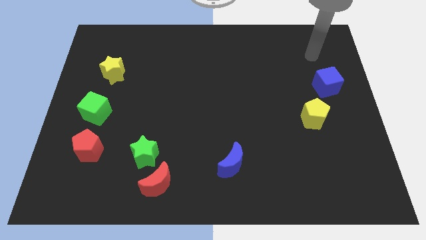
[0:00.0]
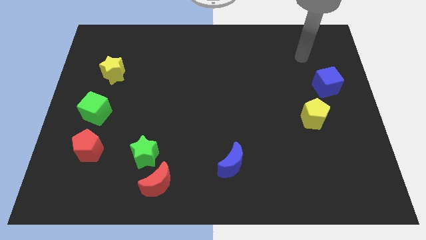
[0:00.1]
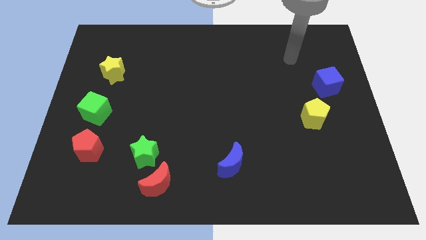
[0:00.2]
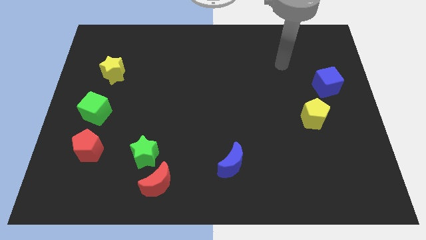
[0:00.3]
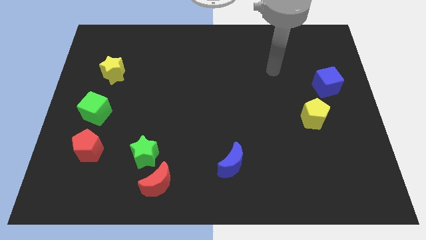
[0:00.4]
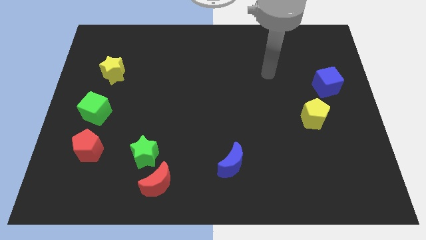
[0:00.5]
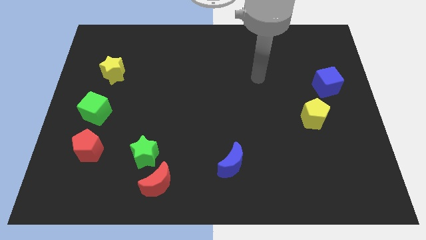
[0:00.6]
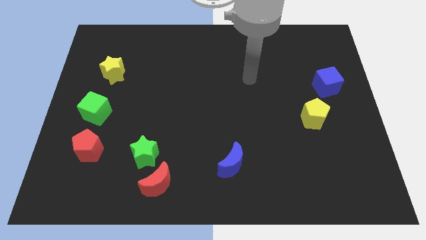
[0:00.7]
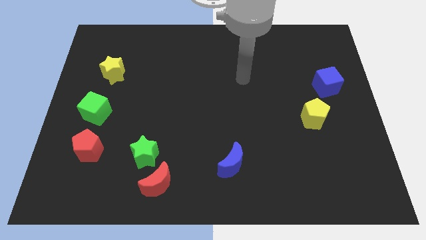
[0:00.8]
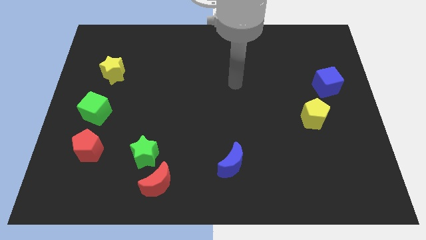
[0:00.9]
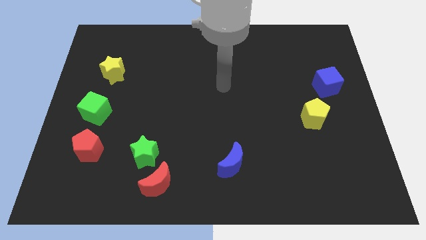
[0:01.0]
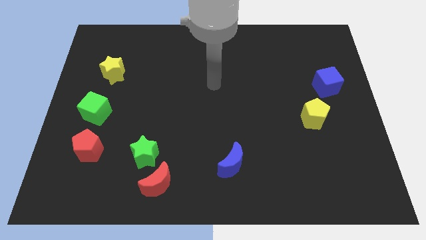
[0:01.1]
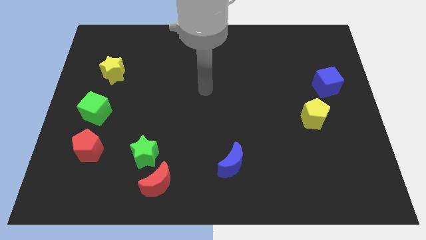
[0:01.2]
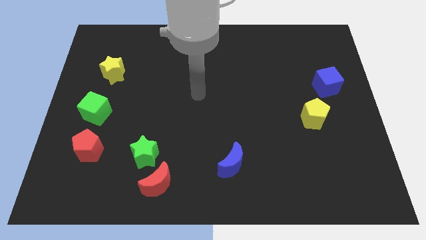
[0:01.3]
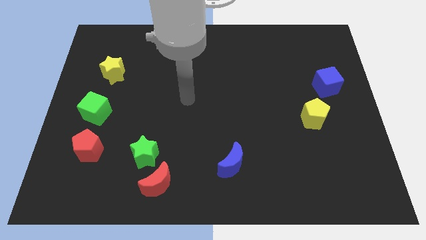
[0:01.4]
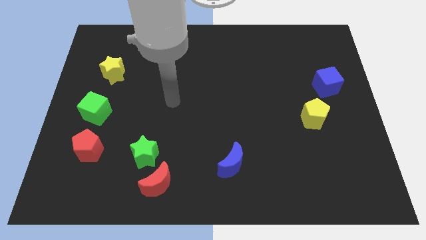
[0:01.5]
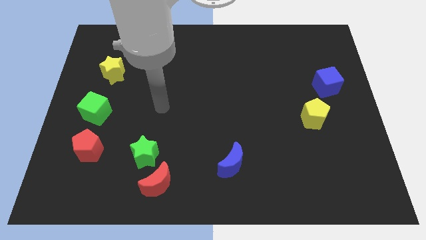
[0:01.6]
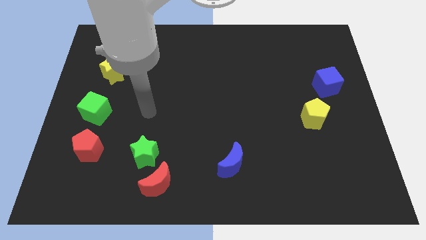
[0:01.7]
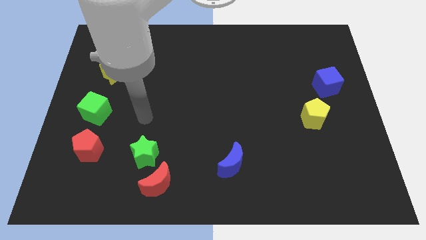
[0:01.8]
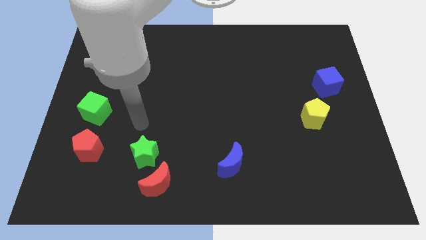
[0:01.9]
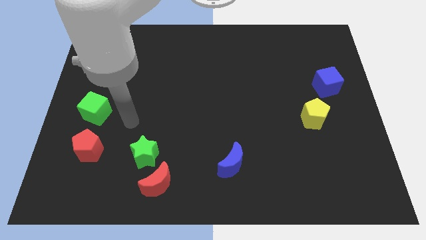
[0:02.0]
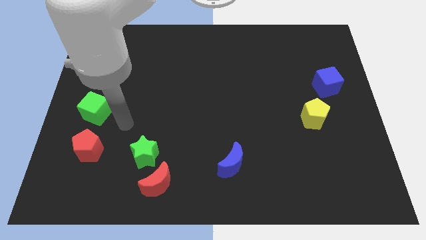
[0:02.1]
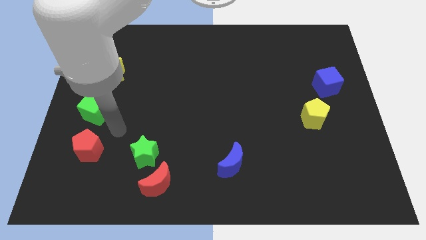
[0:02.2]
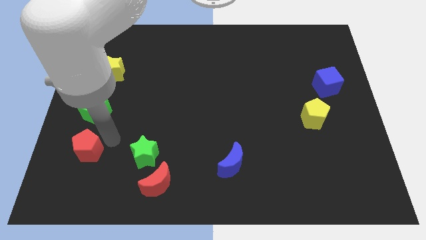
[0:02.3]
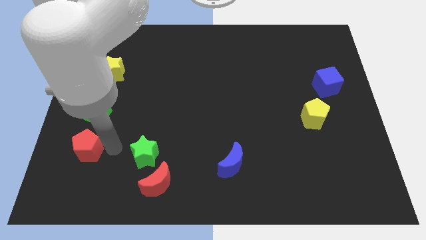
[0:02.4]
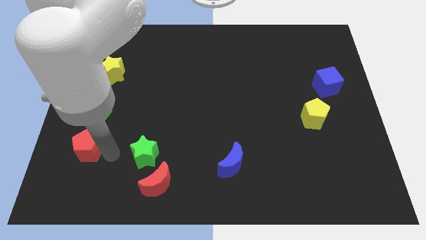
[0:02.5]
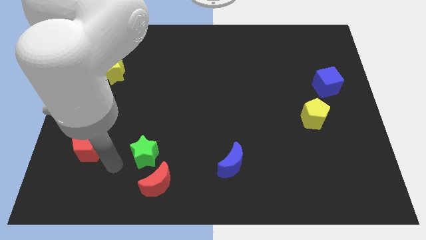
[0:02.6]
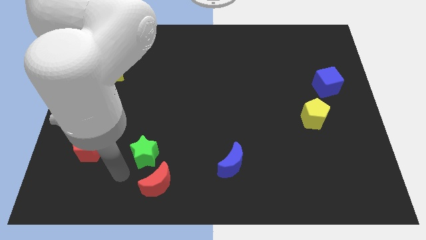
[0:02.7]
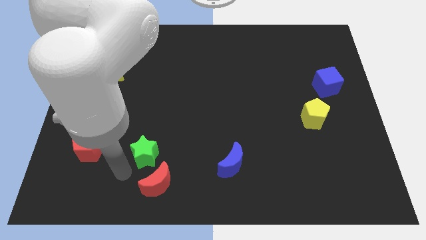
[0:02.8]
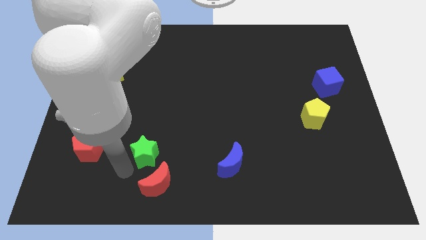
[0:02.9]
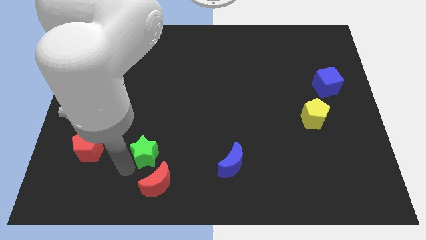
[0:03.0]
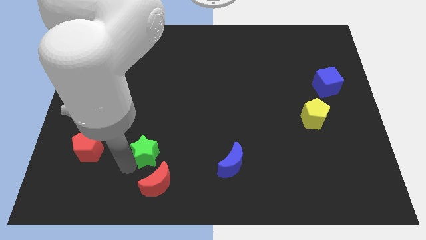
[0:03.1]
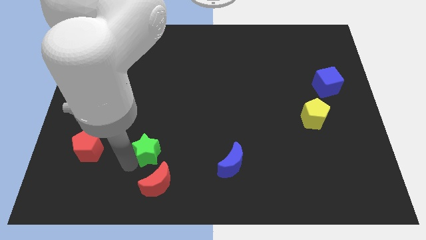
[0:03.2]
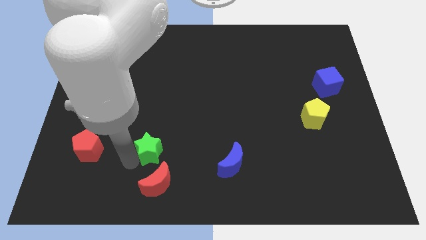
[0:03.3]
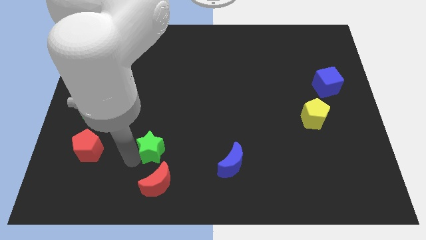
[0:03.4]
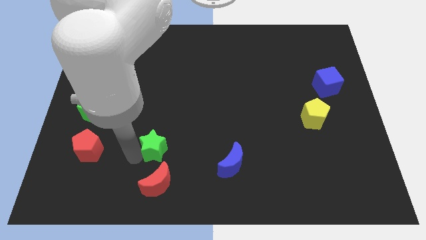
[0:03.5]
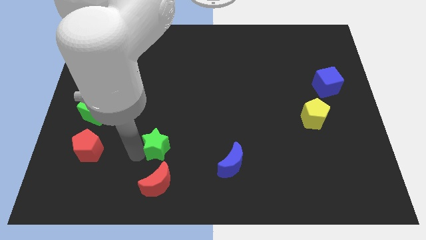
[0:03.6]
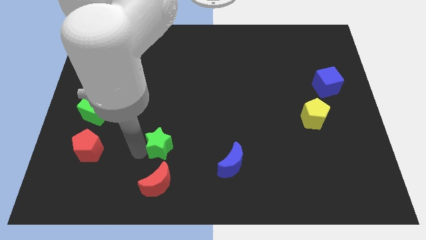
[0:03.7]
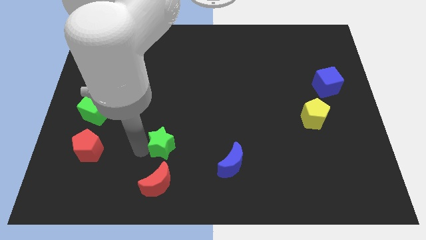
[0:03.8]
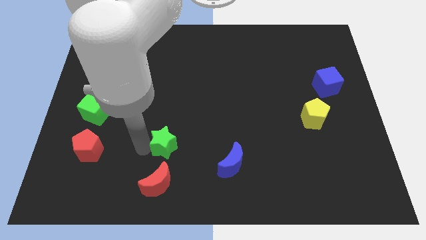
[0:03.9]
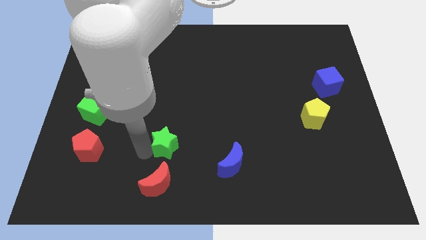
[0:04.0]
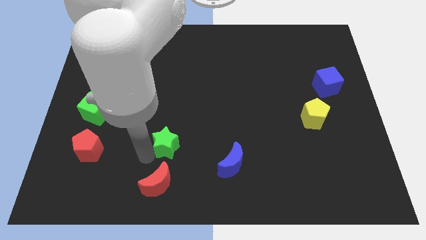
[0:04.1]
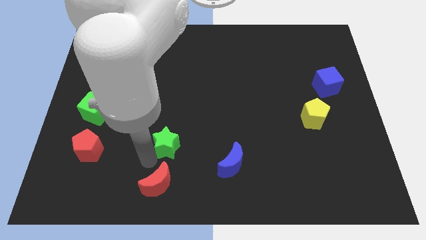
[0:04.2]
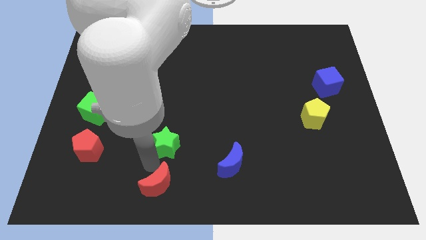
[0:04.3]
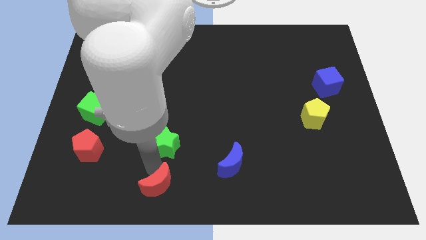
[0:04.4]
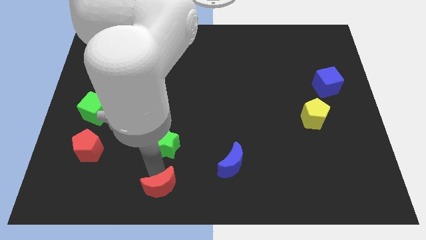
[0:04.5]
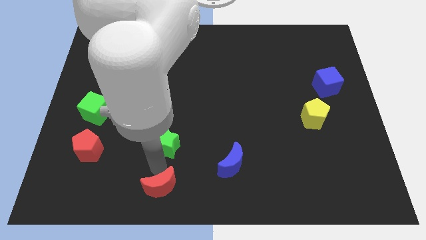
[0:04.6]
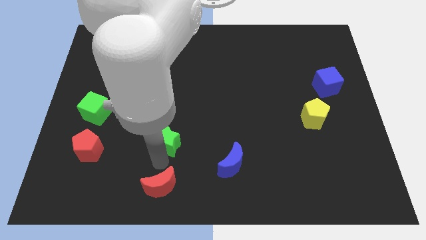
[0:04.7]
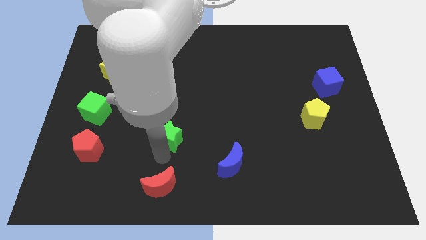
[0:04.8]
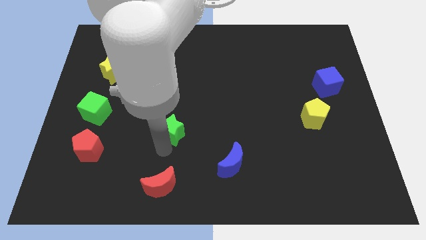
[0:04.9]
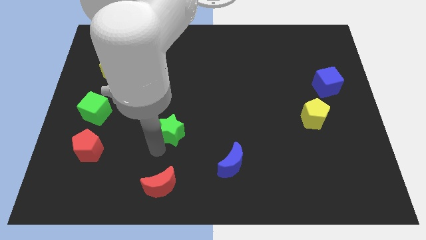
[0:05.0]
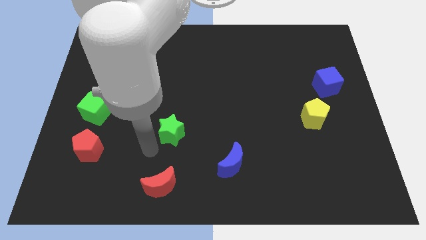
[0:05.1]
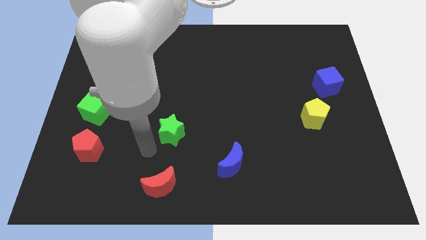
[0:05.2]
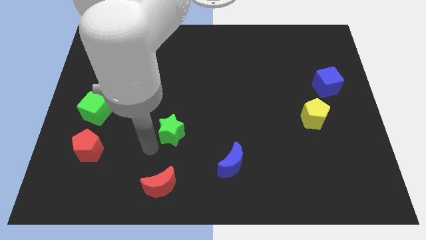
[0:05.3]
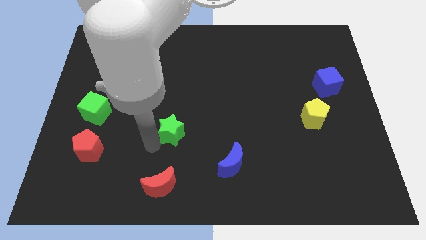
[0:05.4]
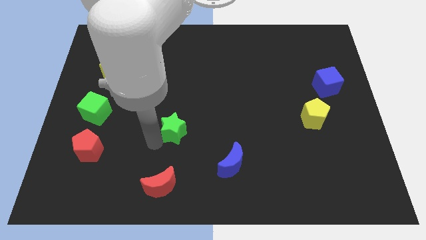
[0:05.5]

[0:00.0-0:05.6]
push the green star to the center

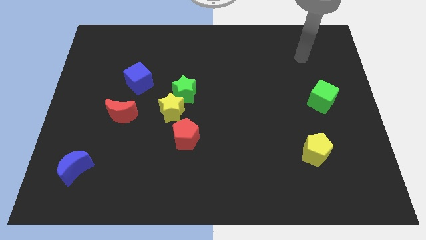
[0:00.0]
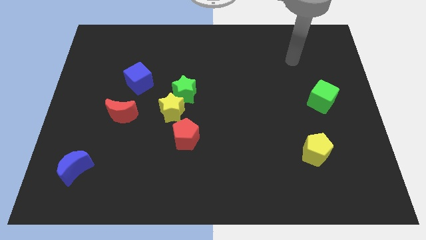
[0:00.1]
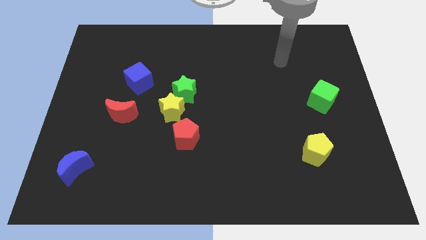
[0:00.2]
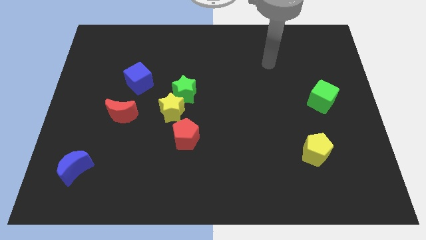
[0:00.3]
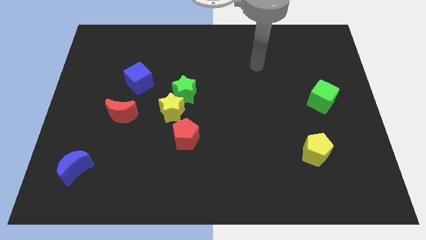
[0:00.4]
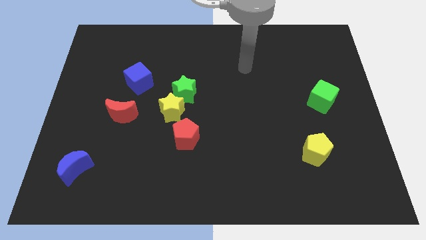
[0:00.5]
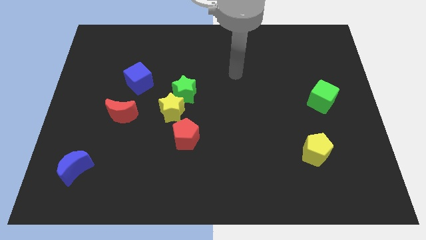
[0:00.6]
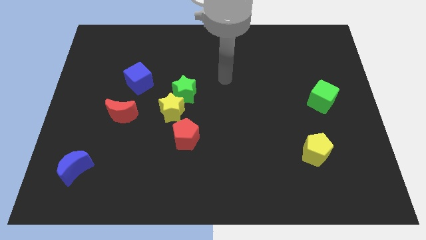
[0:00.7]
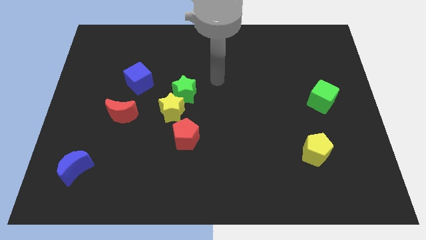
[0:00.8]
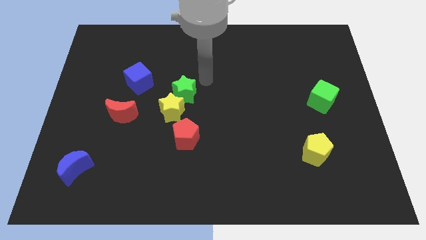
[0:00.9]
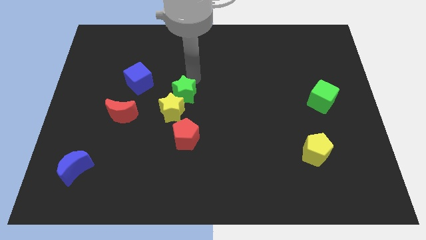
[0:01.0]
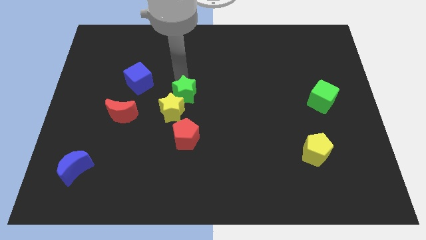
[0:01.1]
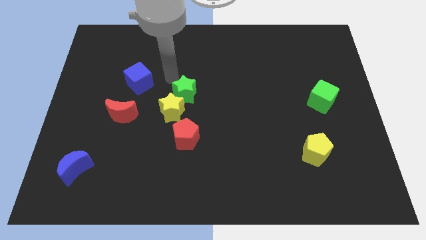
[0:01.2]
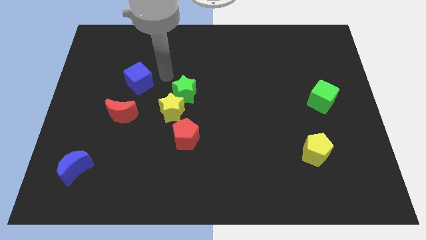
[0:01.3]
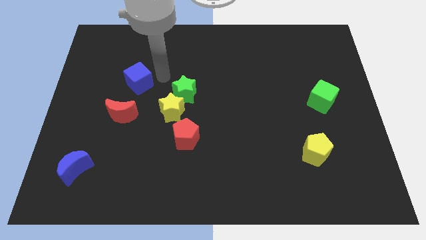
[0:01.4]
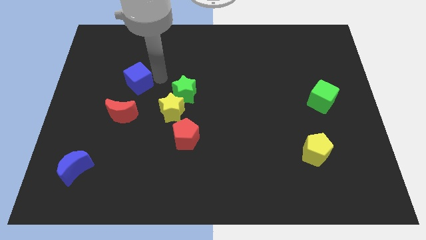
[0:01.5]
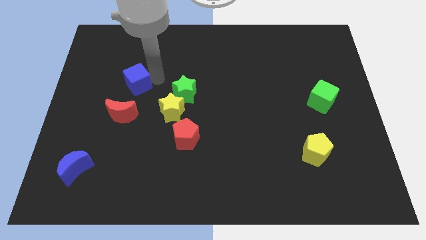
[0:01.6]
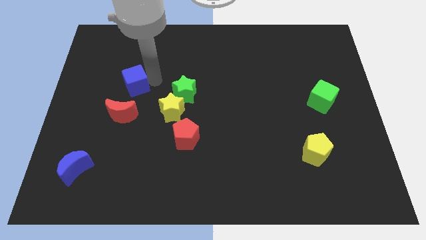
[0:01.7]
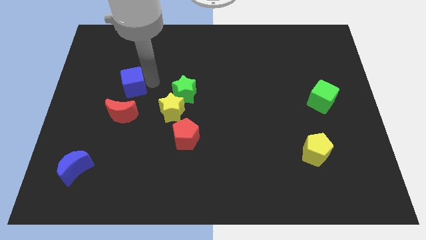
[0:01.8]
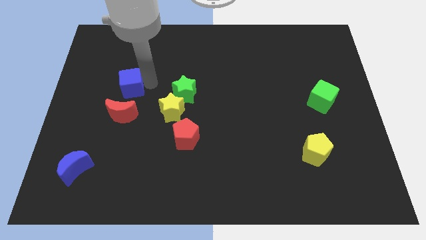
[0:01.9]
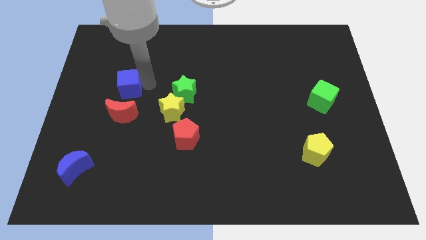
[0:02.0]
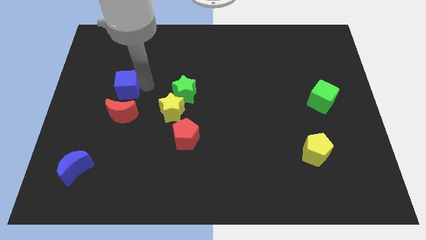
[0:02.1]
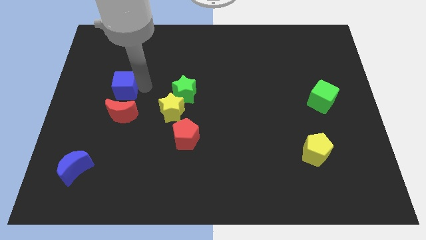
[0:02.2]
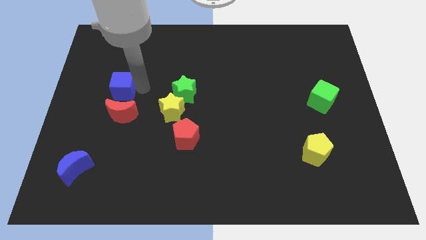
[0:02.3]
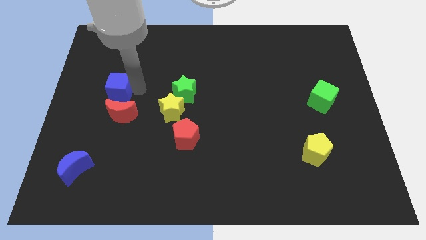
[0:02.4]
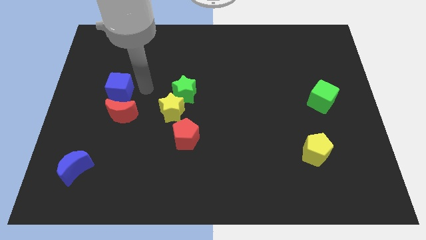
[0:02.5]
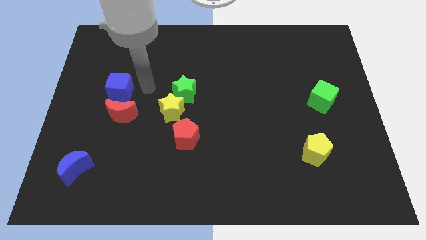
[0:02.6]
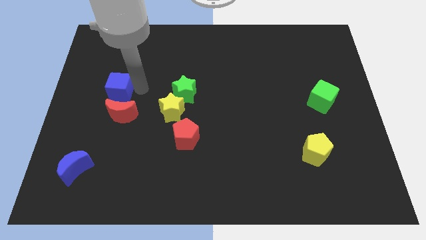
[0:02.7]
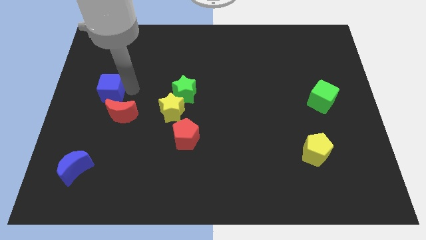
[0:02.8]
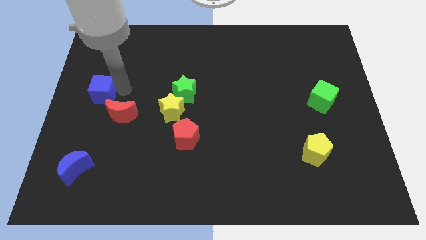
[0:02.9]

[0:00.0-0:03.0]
move the blue cube to the left side of the board
